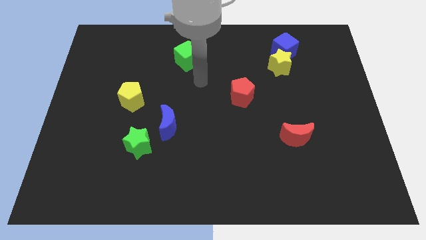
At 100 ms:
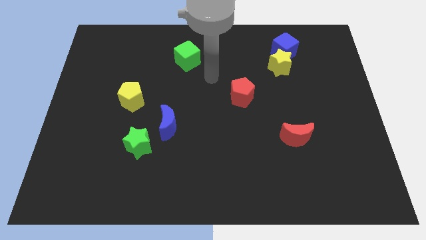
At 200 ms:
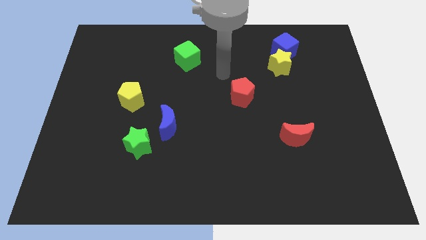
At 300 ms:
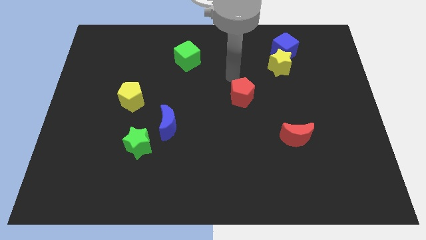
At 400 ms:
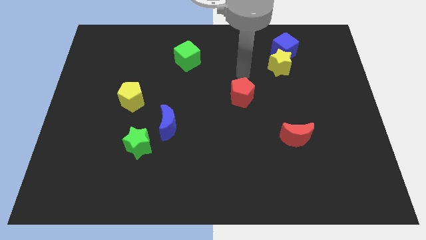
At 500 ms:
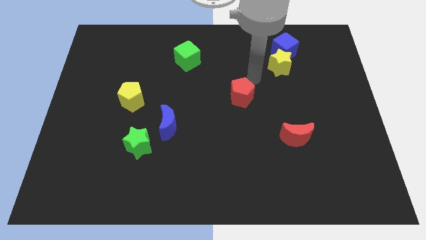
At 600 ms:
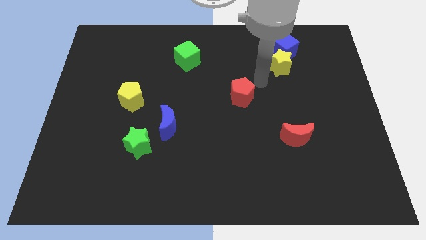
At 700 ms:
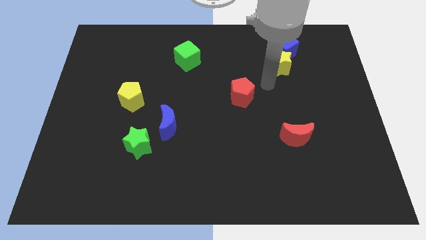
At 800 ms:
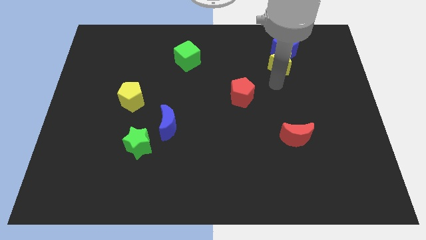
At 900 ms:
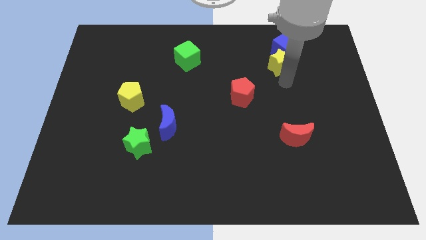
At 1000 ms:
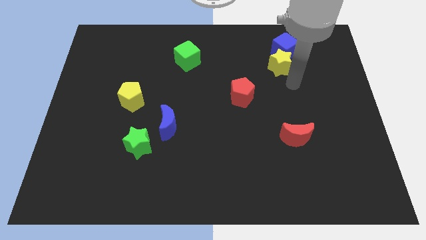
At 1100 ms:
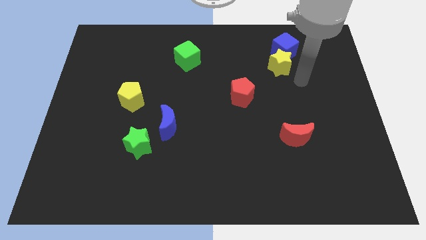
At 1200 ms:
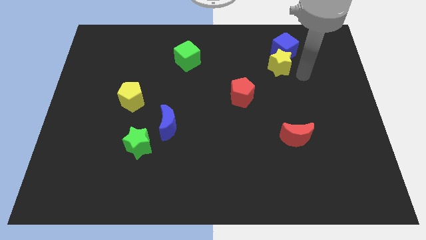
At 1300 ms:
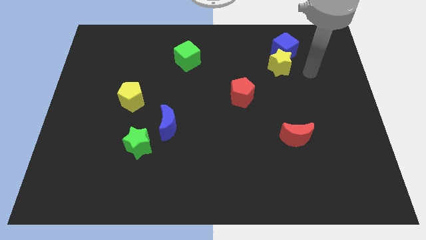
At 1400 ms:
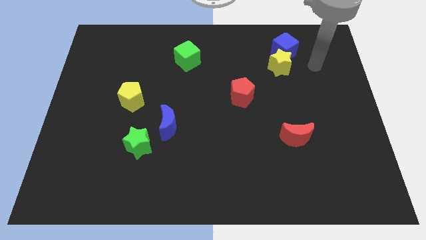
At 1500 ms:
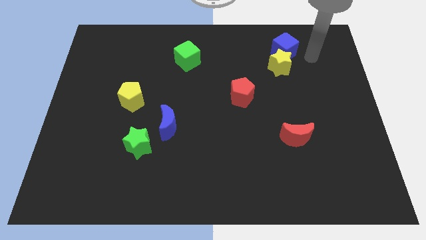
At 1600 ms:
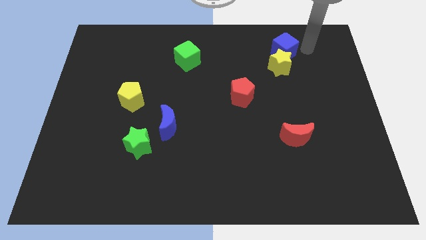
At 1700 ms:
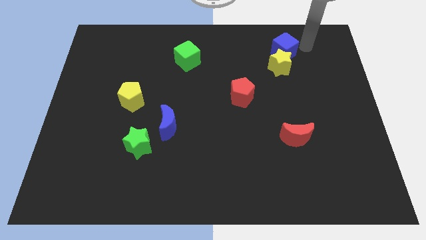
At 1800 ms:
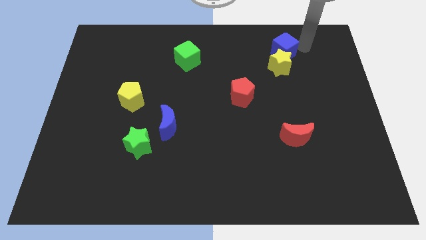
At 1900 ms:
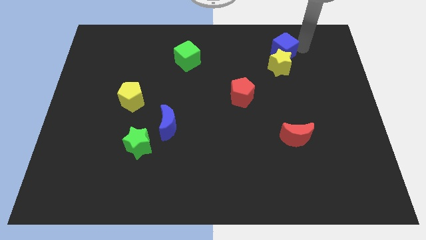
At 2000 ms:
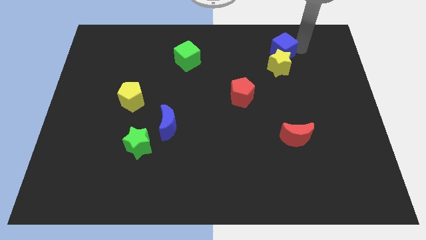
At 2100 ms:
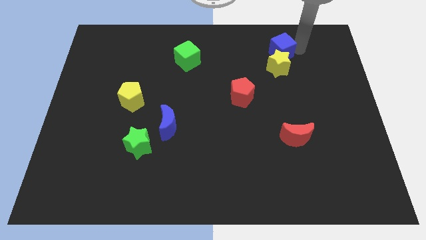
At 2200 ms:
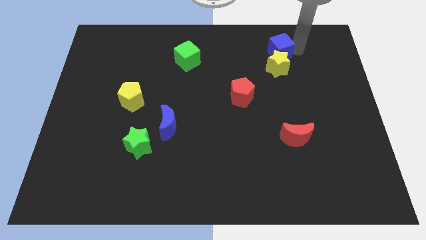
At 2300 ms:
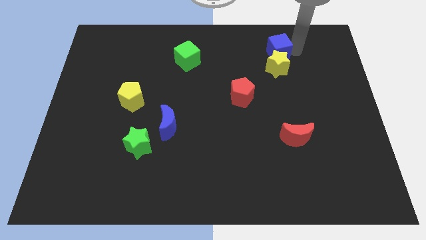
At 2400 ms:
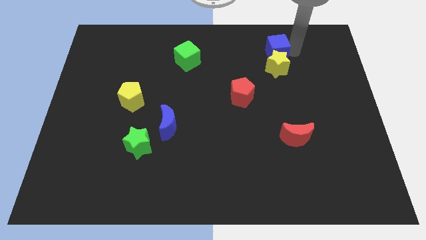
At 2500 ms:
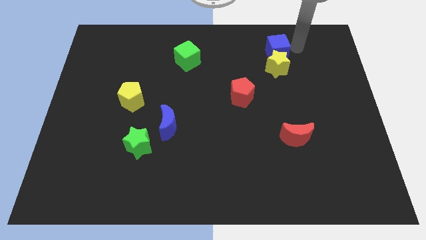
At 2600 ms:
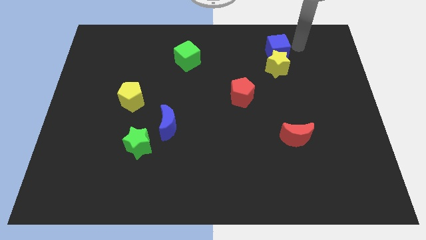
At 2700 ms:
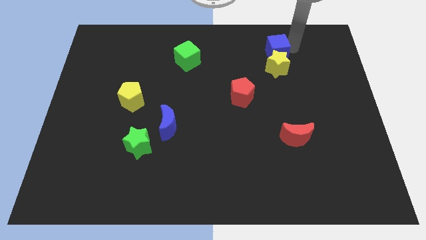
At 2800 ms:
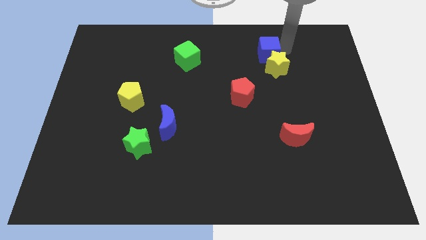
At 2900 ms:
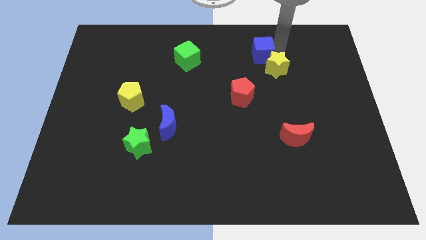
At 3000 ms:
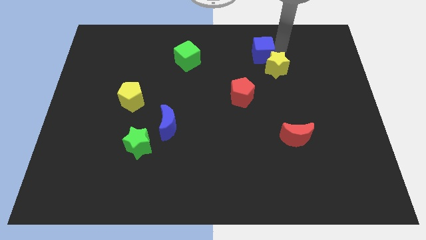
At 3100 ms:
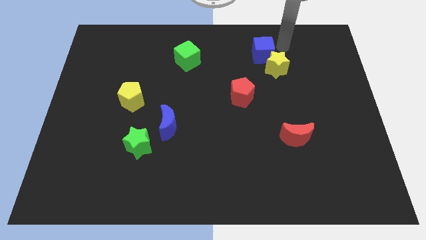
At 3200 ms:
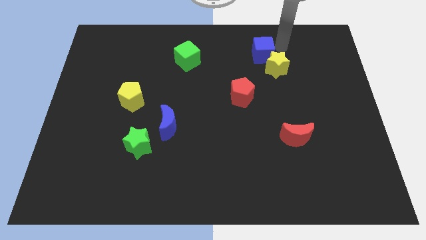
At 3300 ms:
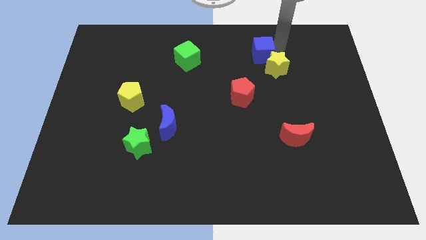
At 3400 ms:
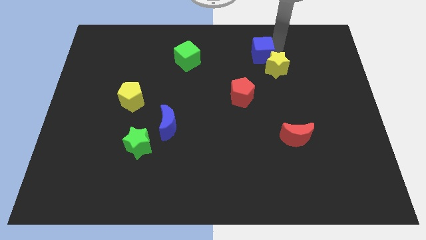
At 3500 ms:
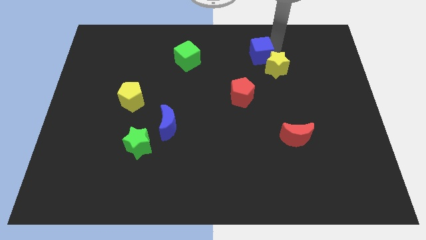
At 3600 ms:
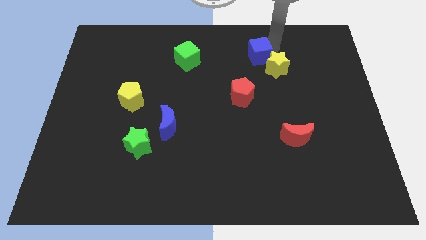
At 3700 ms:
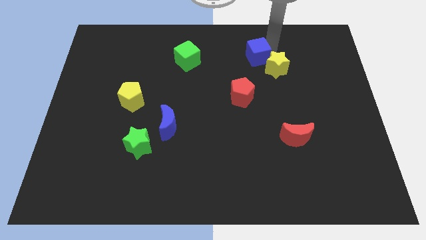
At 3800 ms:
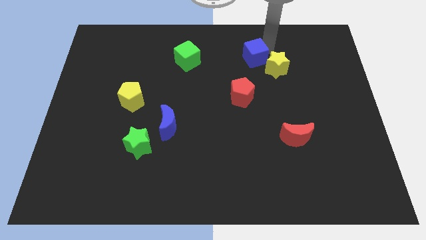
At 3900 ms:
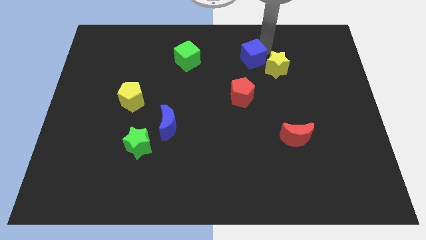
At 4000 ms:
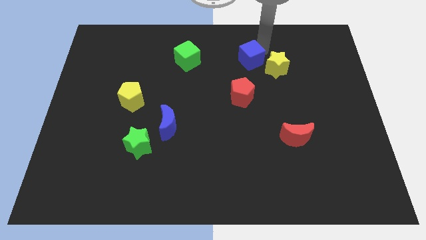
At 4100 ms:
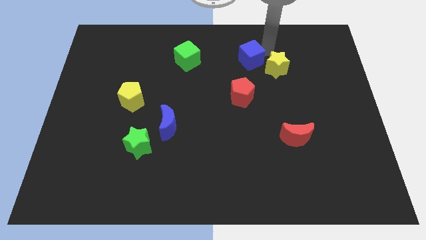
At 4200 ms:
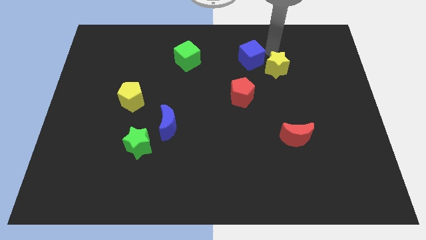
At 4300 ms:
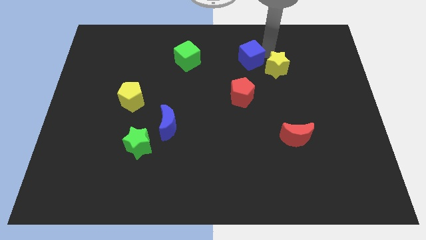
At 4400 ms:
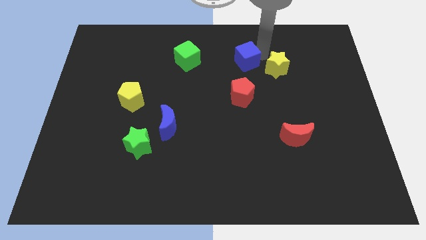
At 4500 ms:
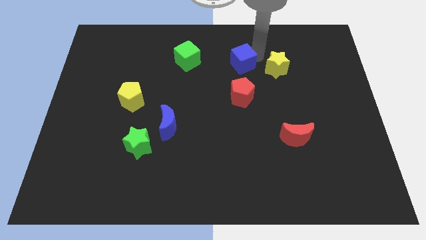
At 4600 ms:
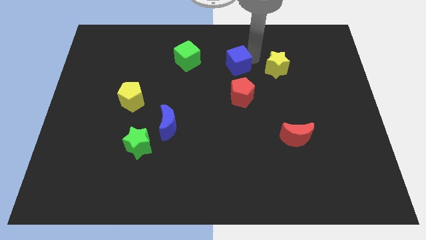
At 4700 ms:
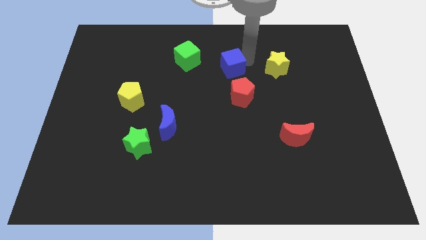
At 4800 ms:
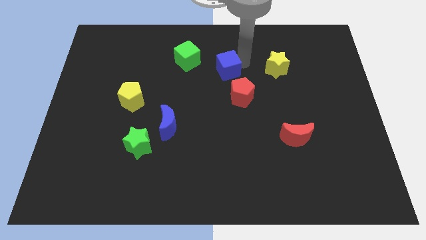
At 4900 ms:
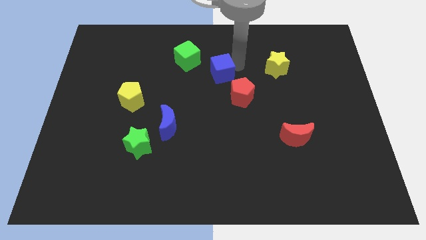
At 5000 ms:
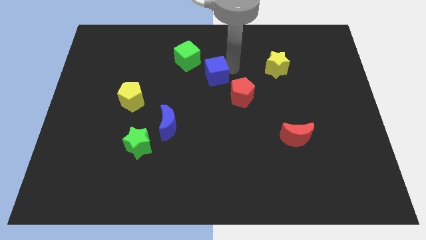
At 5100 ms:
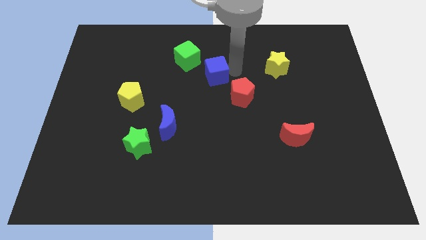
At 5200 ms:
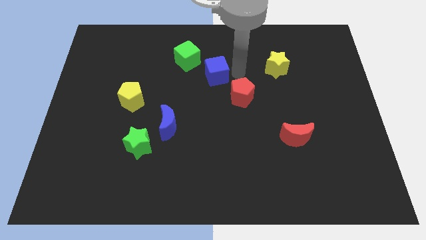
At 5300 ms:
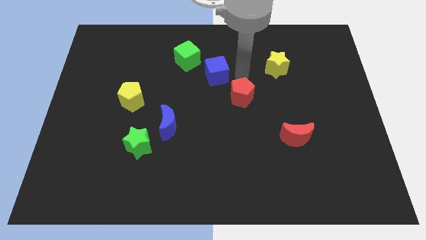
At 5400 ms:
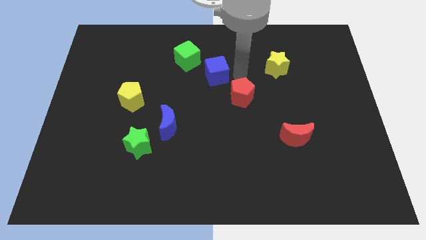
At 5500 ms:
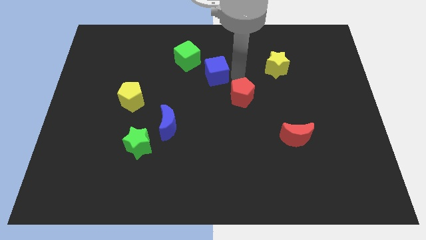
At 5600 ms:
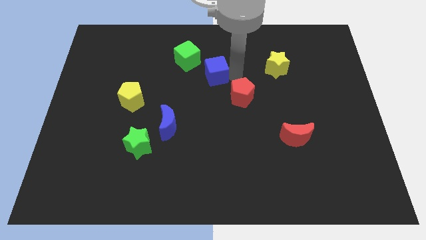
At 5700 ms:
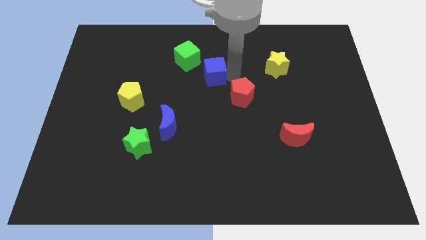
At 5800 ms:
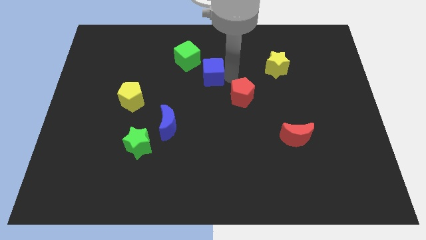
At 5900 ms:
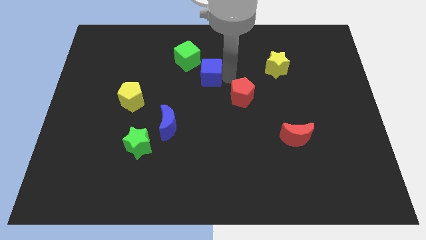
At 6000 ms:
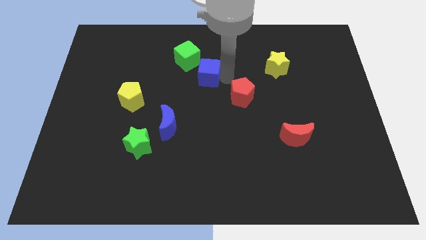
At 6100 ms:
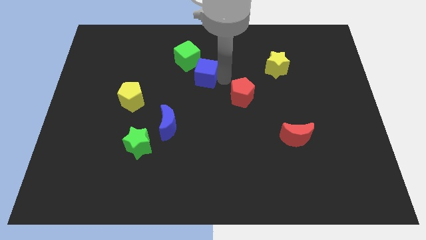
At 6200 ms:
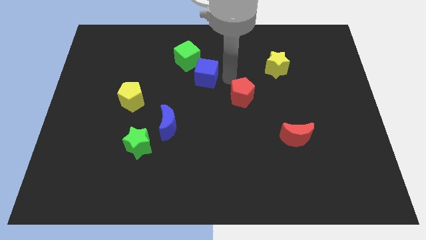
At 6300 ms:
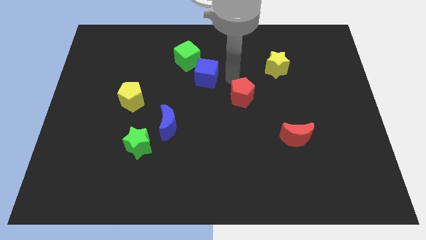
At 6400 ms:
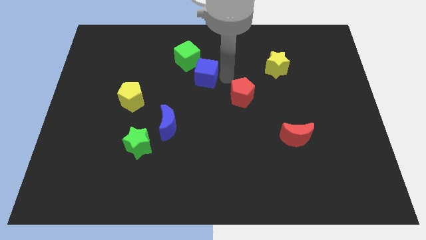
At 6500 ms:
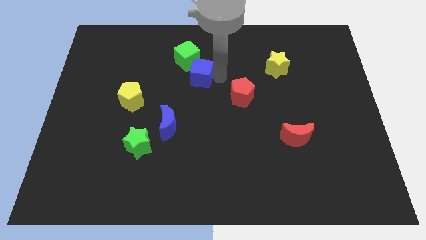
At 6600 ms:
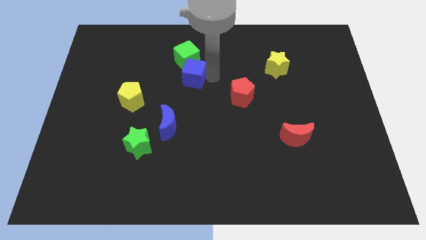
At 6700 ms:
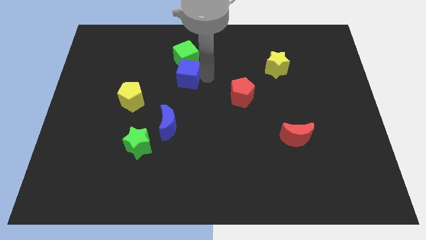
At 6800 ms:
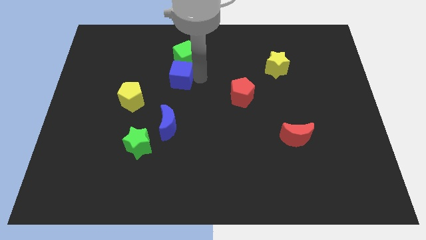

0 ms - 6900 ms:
push the blue cube to the bottom left side of the green cube

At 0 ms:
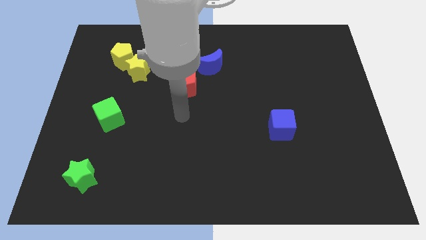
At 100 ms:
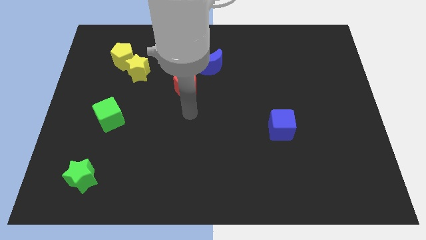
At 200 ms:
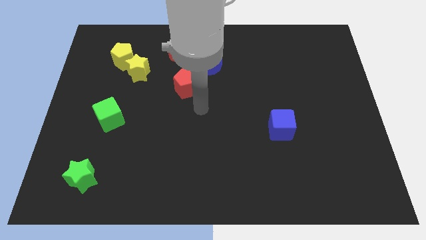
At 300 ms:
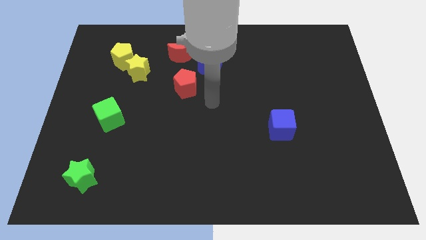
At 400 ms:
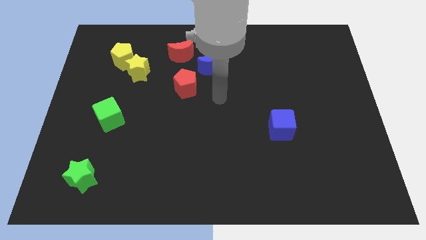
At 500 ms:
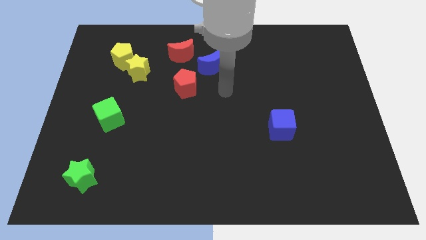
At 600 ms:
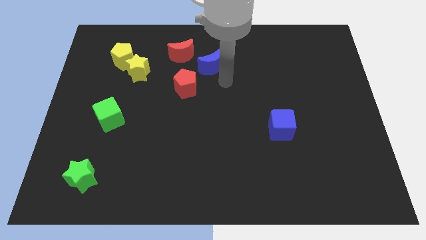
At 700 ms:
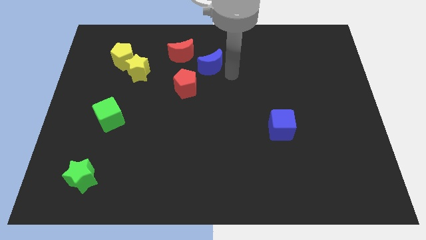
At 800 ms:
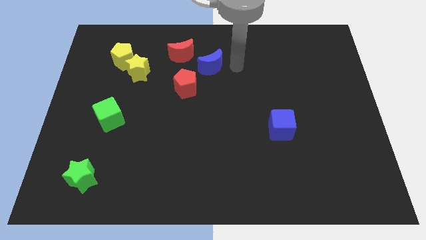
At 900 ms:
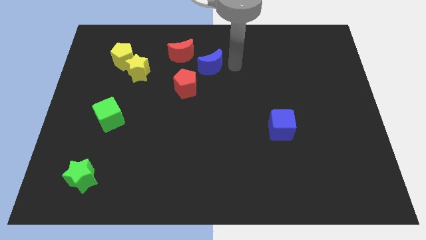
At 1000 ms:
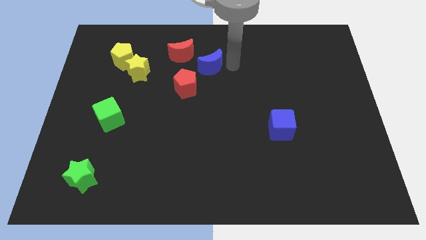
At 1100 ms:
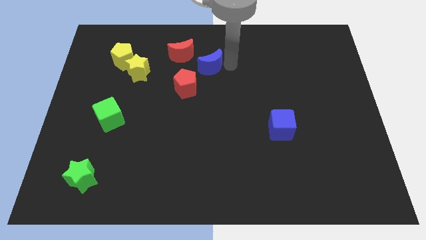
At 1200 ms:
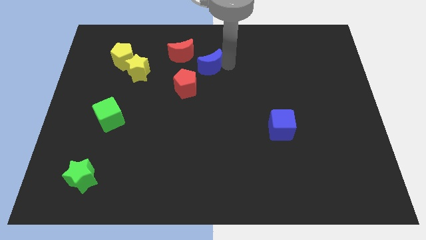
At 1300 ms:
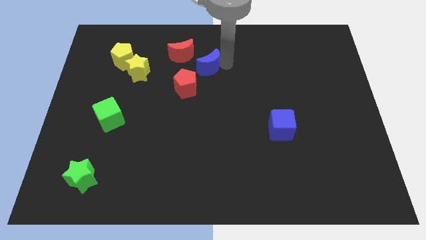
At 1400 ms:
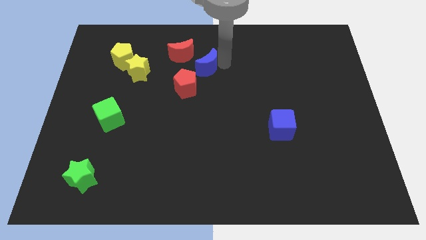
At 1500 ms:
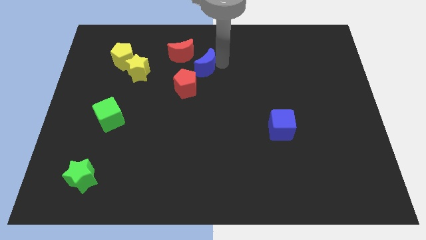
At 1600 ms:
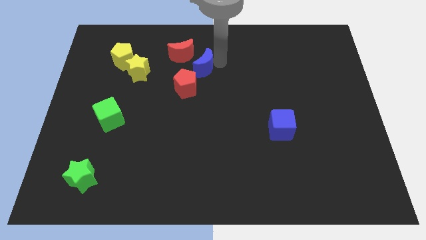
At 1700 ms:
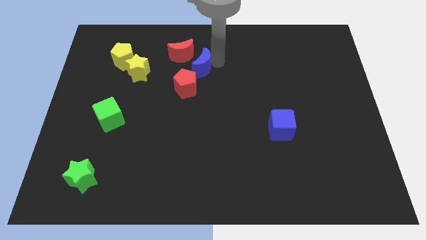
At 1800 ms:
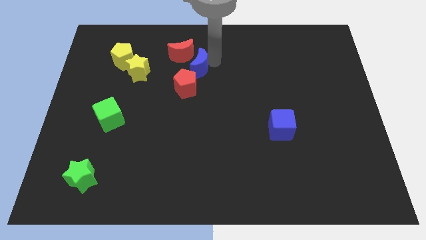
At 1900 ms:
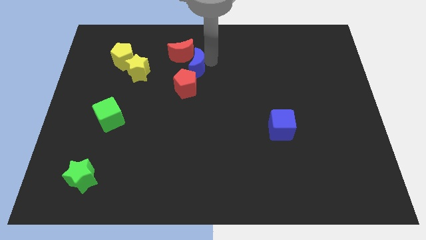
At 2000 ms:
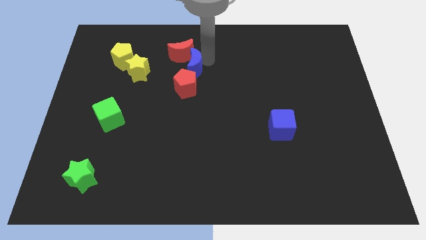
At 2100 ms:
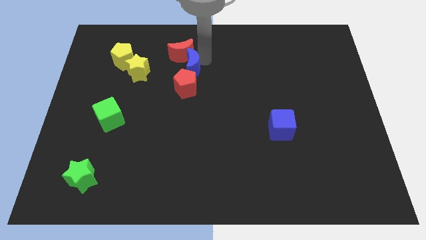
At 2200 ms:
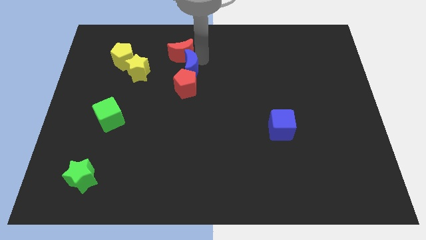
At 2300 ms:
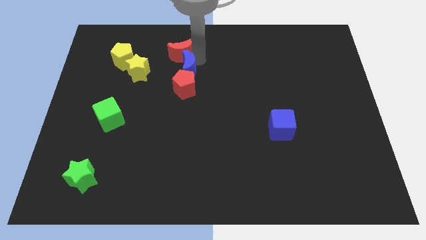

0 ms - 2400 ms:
move the blue moon to the top left of the red pentagon
